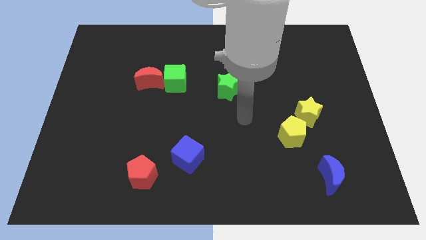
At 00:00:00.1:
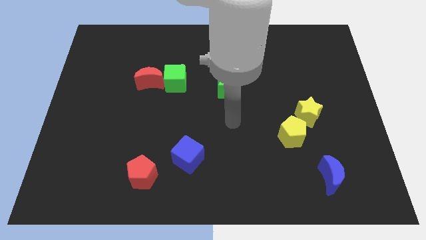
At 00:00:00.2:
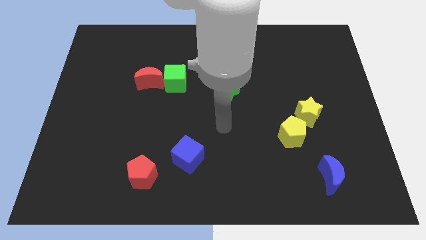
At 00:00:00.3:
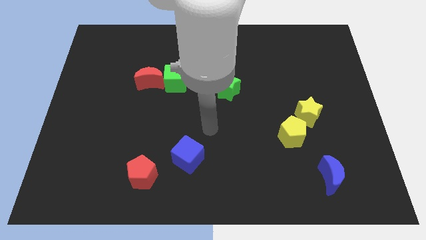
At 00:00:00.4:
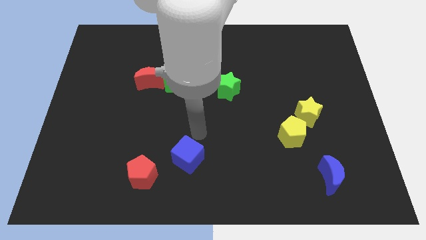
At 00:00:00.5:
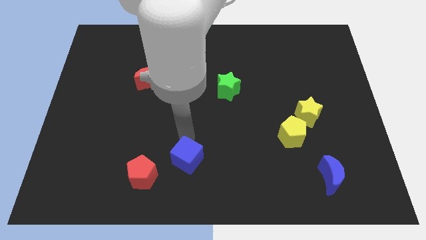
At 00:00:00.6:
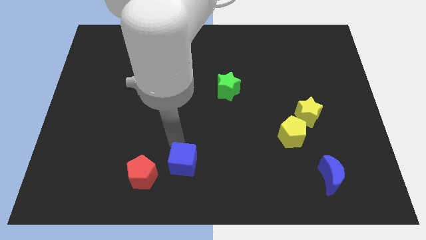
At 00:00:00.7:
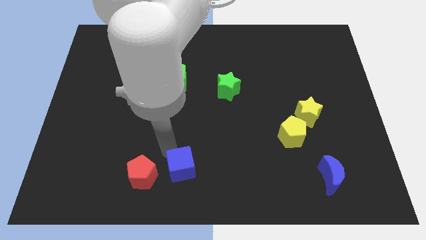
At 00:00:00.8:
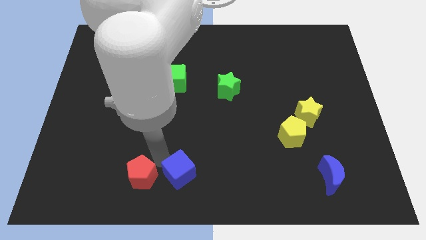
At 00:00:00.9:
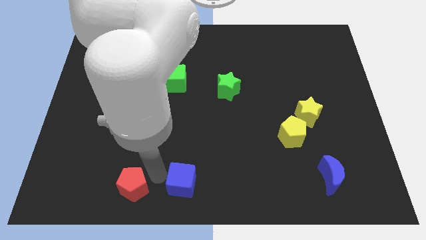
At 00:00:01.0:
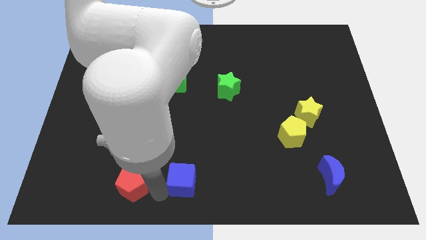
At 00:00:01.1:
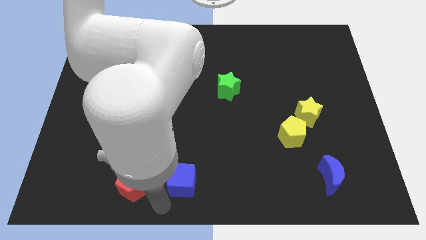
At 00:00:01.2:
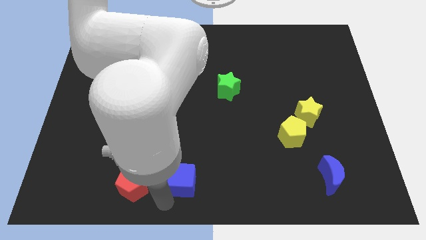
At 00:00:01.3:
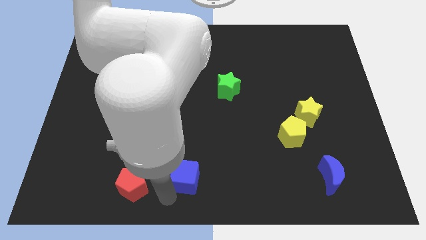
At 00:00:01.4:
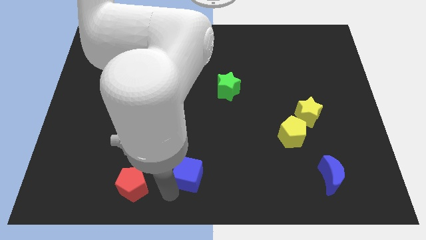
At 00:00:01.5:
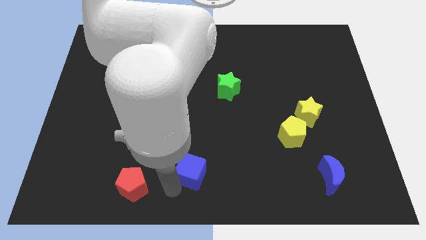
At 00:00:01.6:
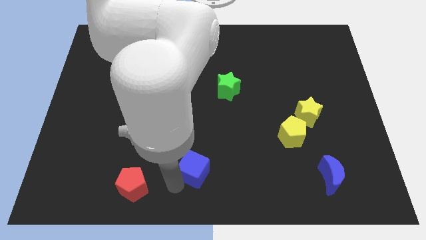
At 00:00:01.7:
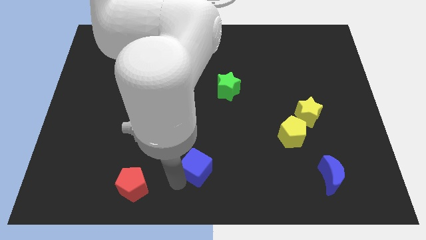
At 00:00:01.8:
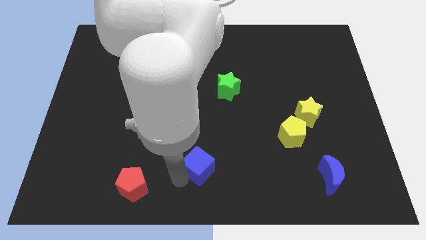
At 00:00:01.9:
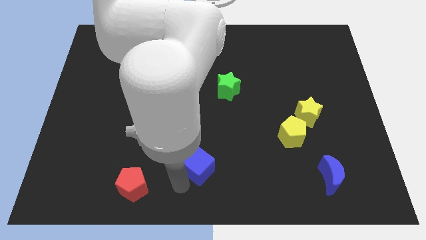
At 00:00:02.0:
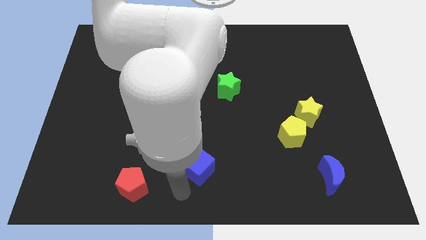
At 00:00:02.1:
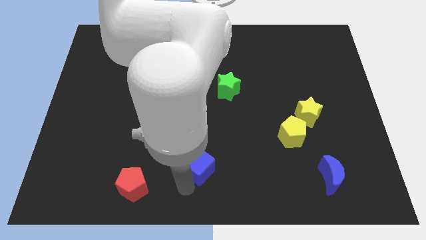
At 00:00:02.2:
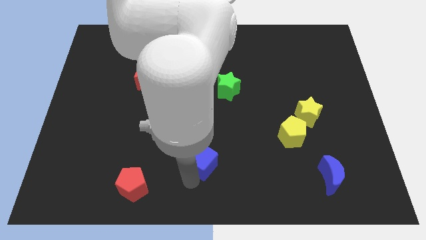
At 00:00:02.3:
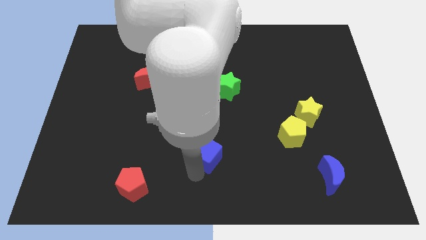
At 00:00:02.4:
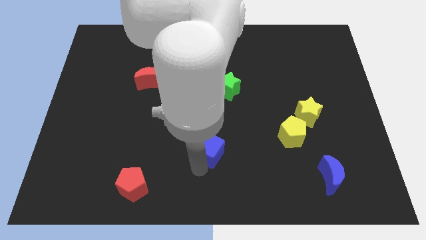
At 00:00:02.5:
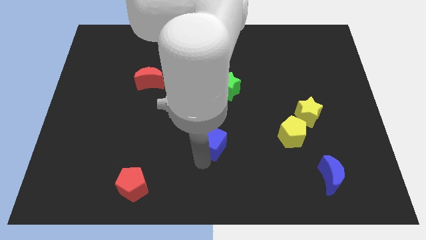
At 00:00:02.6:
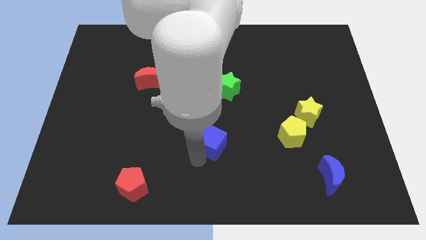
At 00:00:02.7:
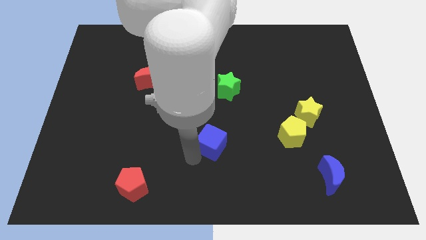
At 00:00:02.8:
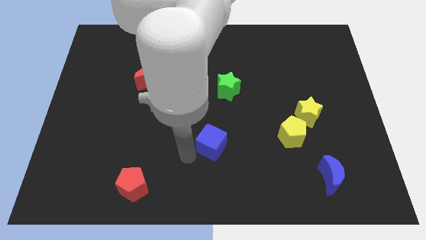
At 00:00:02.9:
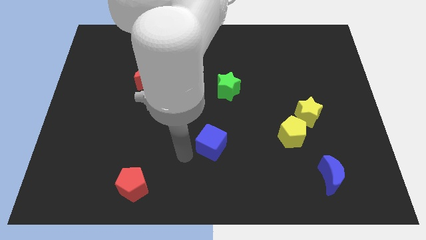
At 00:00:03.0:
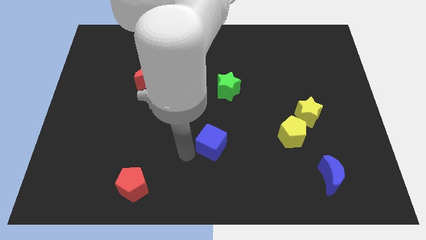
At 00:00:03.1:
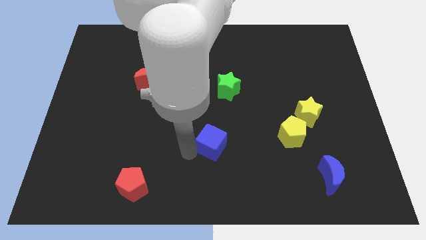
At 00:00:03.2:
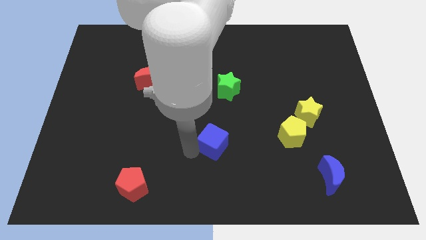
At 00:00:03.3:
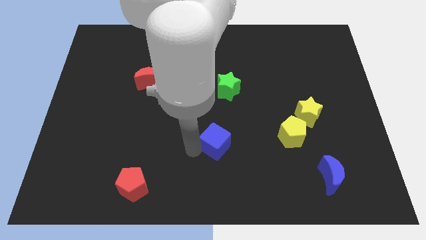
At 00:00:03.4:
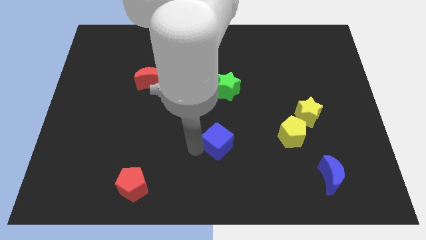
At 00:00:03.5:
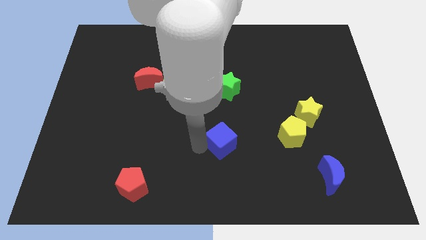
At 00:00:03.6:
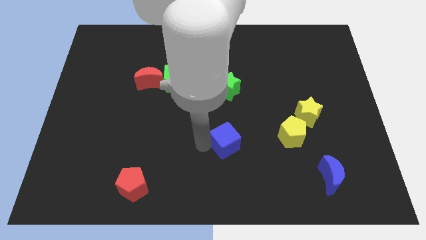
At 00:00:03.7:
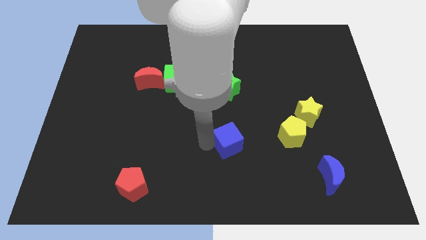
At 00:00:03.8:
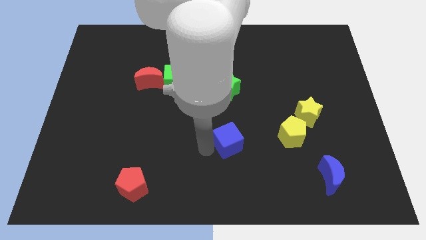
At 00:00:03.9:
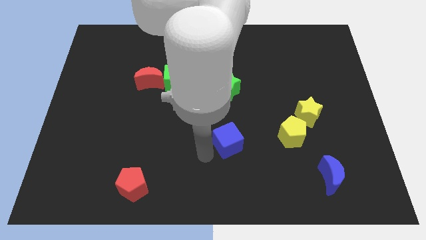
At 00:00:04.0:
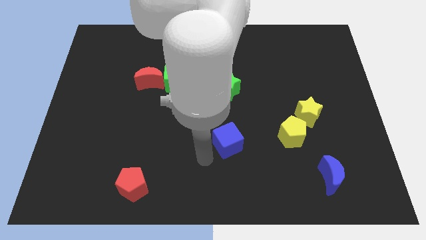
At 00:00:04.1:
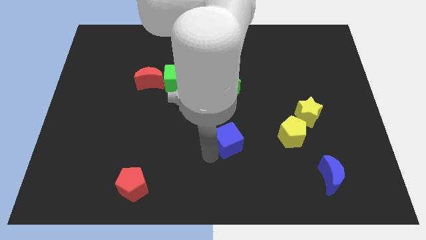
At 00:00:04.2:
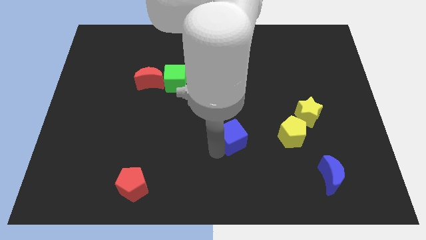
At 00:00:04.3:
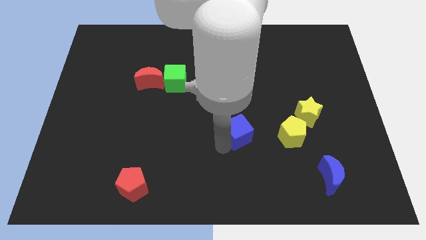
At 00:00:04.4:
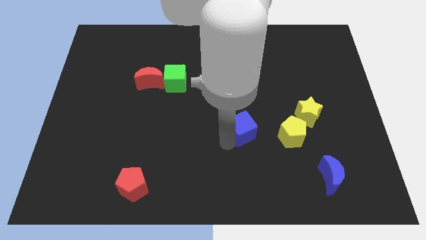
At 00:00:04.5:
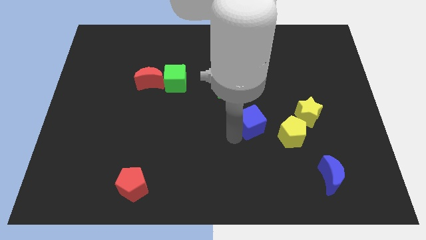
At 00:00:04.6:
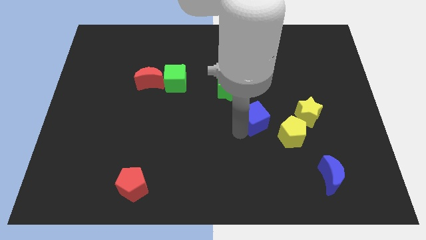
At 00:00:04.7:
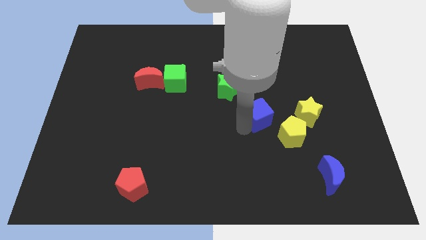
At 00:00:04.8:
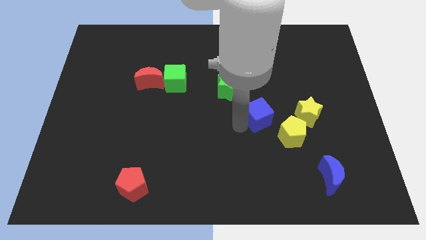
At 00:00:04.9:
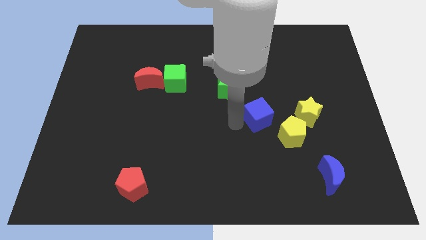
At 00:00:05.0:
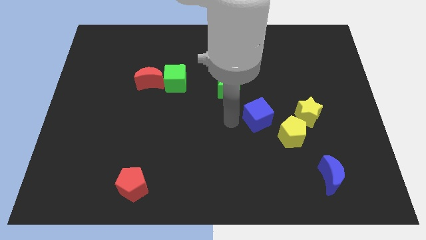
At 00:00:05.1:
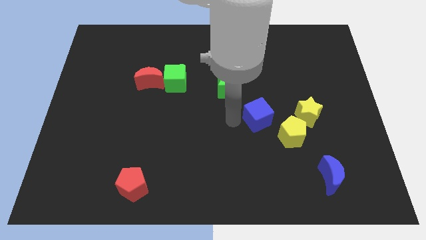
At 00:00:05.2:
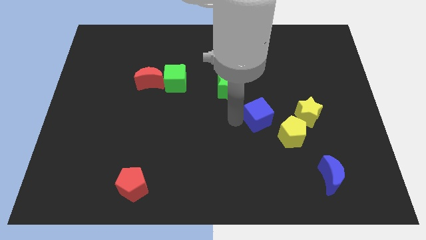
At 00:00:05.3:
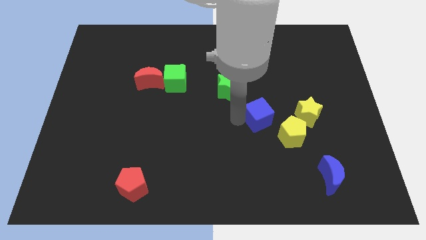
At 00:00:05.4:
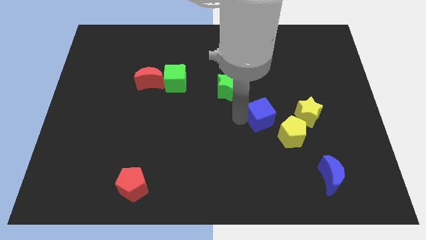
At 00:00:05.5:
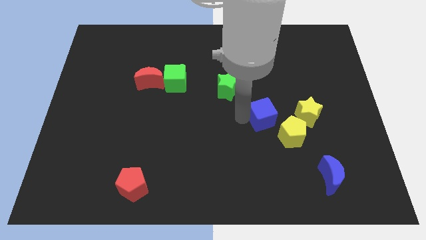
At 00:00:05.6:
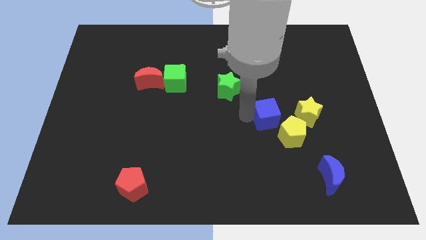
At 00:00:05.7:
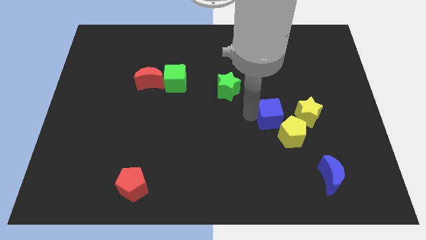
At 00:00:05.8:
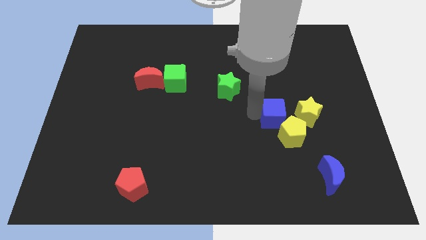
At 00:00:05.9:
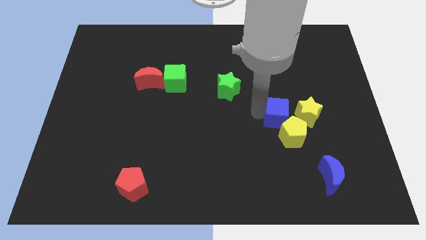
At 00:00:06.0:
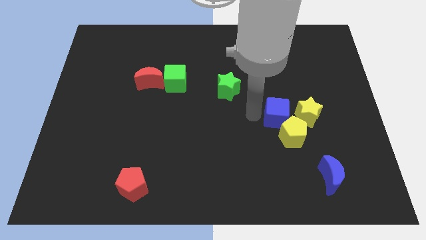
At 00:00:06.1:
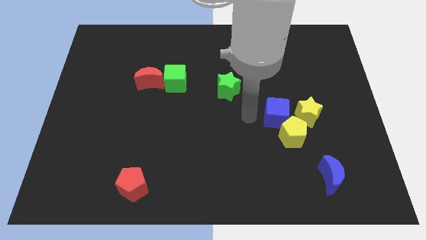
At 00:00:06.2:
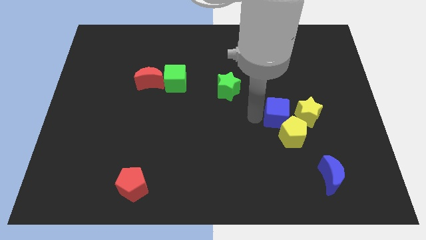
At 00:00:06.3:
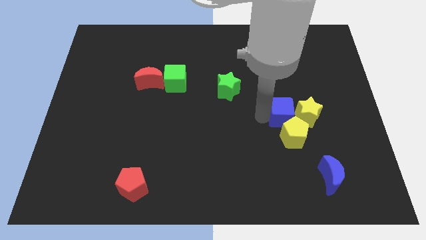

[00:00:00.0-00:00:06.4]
push the blue cube next to the yellow star
